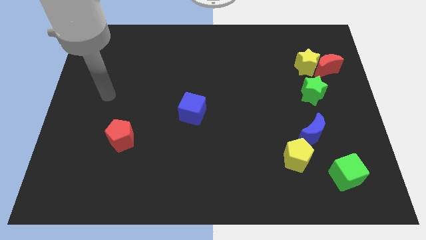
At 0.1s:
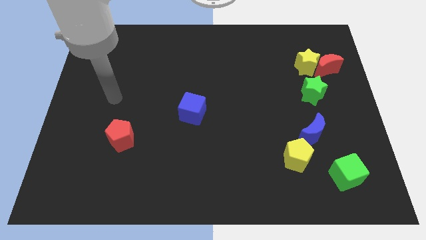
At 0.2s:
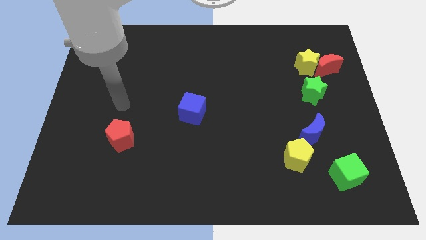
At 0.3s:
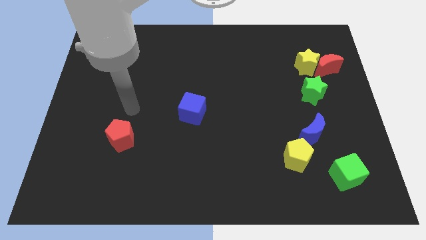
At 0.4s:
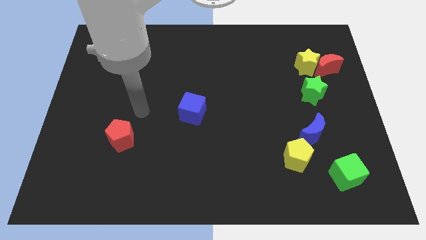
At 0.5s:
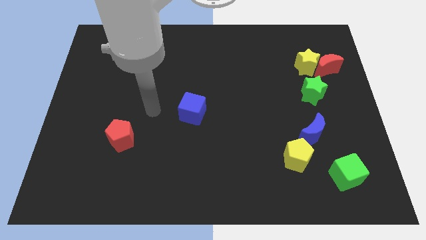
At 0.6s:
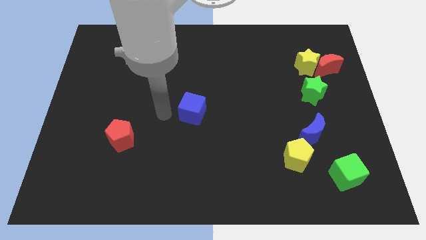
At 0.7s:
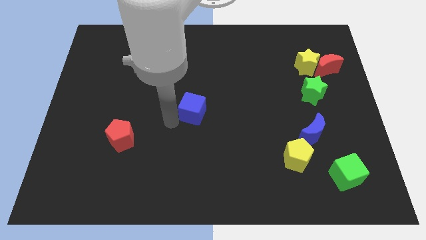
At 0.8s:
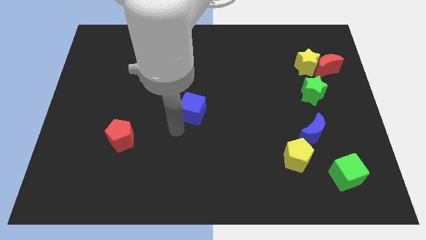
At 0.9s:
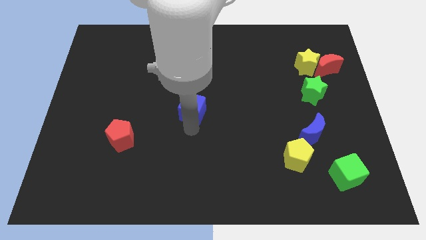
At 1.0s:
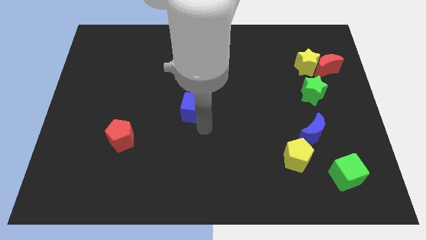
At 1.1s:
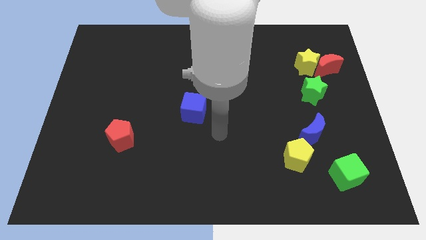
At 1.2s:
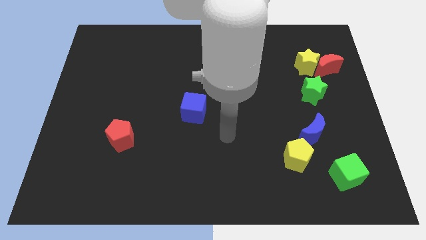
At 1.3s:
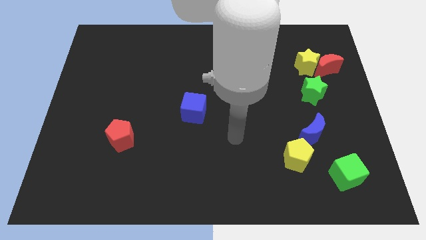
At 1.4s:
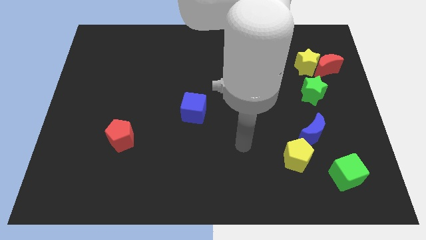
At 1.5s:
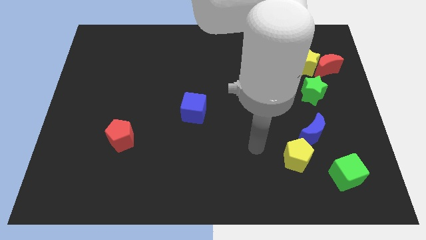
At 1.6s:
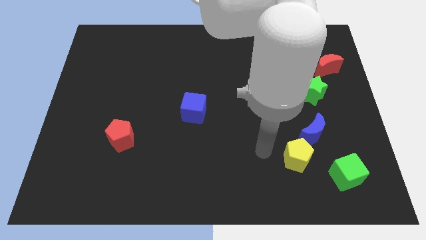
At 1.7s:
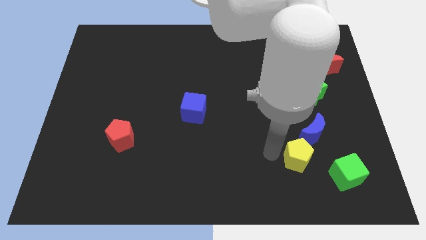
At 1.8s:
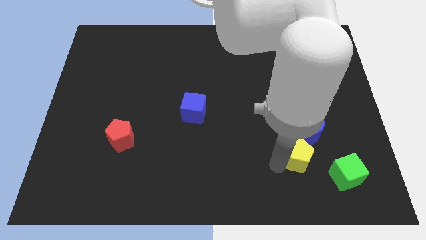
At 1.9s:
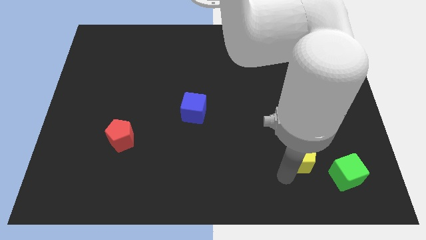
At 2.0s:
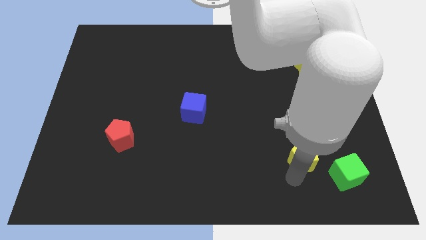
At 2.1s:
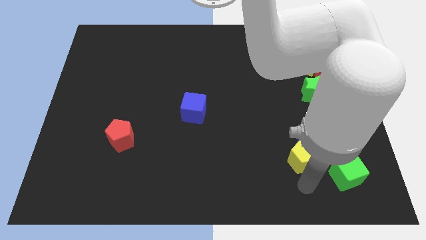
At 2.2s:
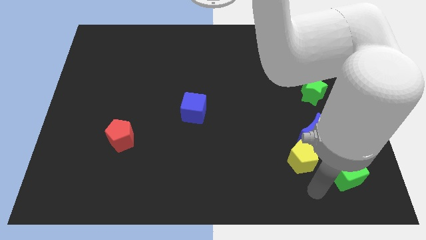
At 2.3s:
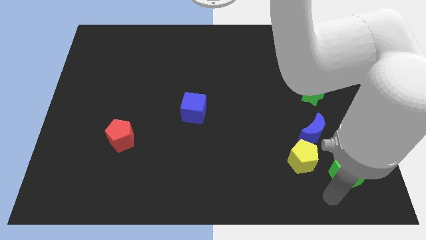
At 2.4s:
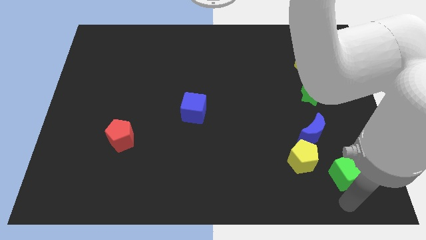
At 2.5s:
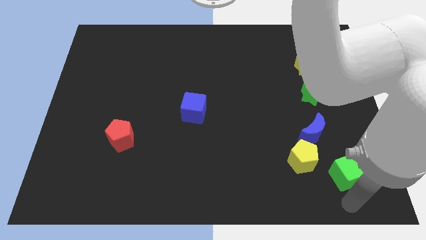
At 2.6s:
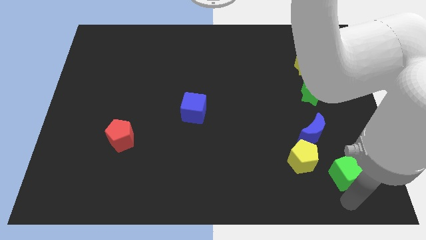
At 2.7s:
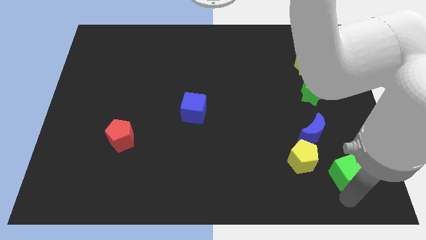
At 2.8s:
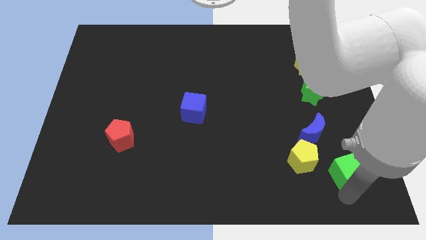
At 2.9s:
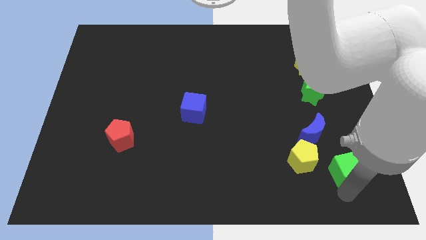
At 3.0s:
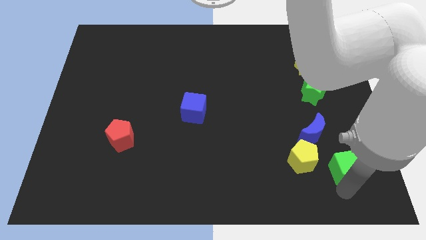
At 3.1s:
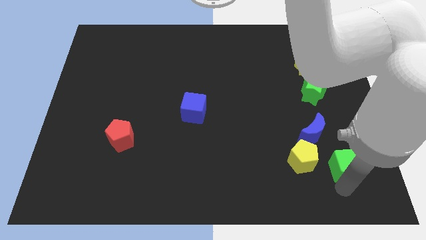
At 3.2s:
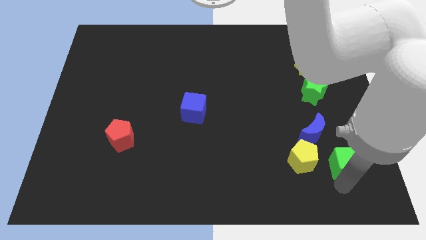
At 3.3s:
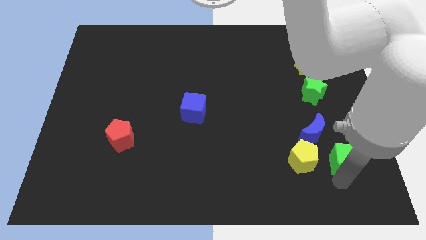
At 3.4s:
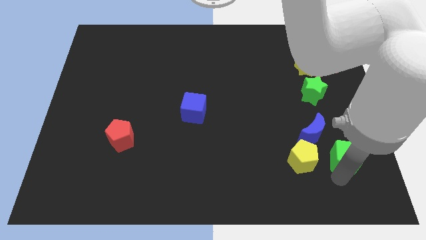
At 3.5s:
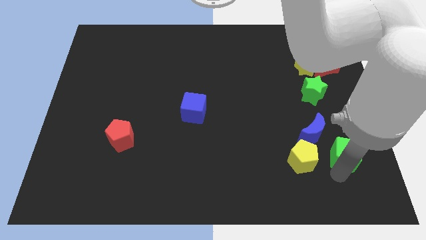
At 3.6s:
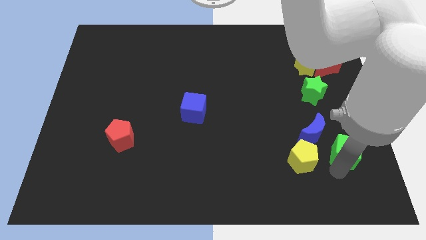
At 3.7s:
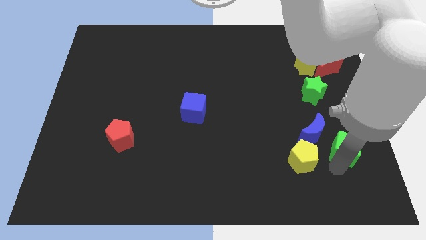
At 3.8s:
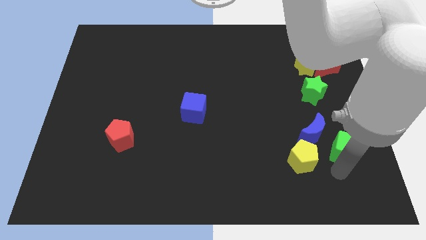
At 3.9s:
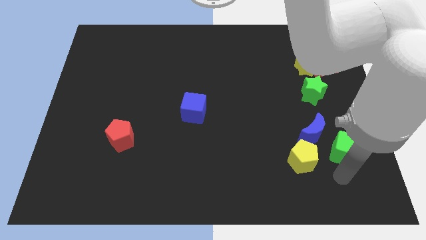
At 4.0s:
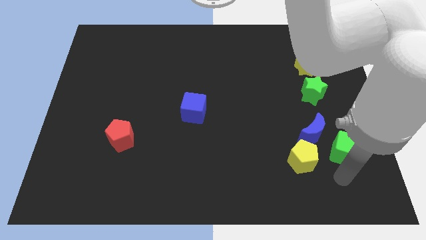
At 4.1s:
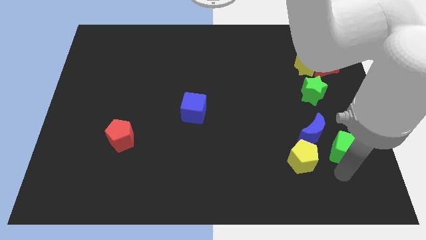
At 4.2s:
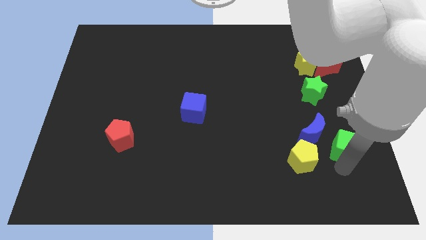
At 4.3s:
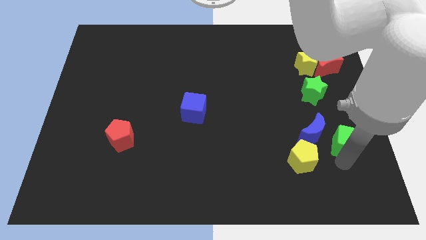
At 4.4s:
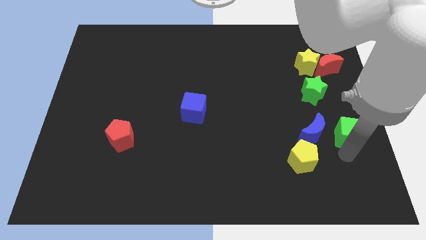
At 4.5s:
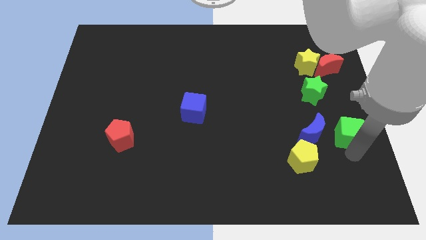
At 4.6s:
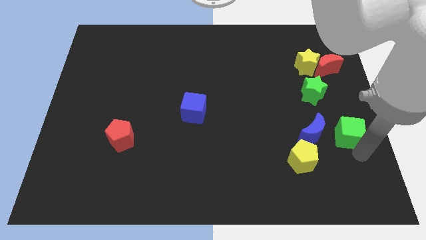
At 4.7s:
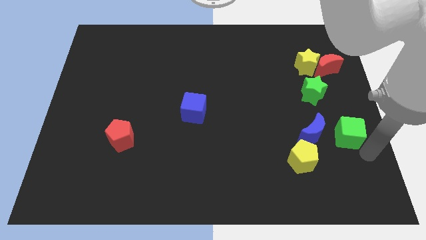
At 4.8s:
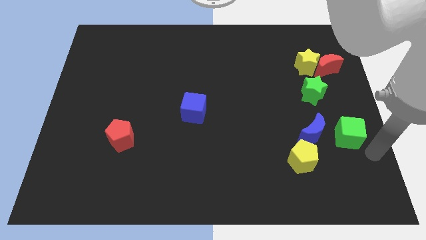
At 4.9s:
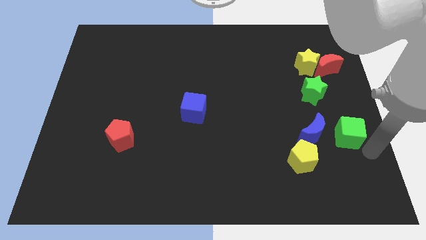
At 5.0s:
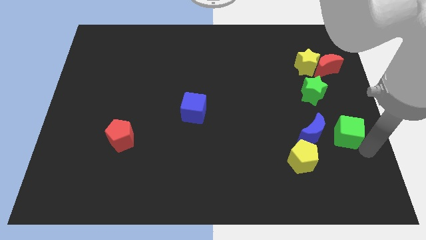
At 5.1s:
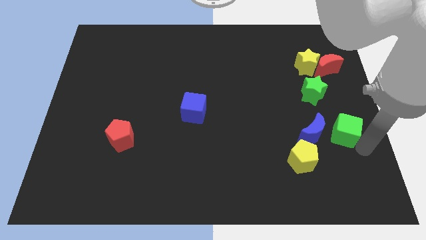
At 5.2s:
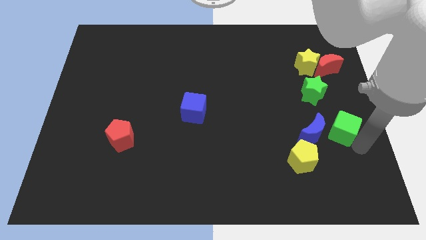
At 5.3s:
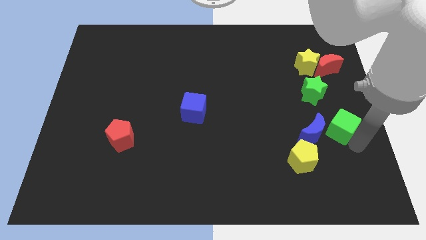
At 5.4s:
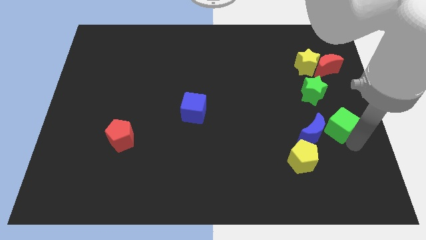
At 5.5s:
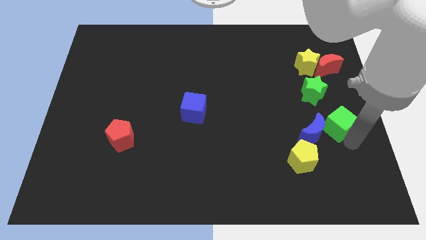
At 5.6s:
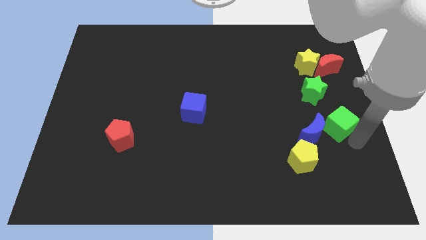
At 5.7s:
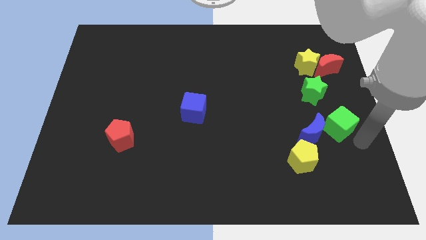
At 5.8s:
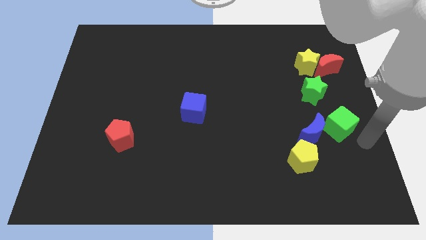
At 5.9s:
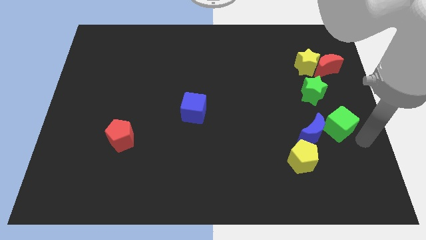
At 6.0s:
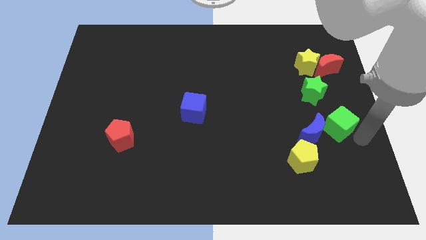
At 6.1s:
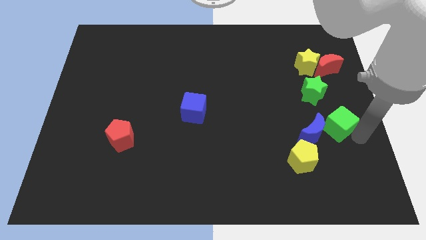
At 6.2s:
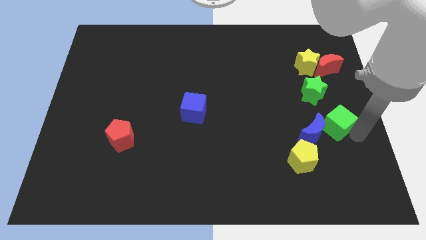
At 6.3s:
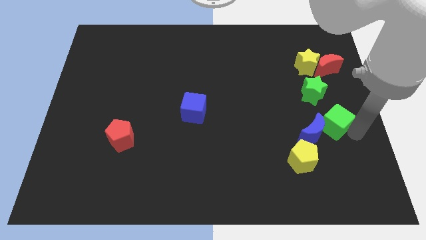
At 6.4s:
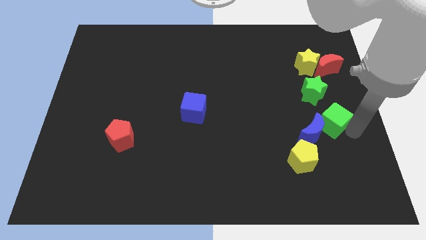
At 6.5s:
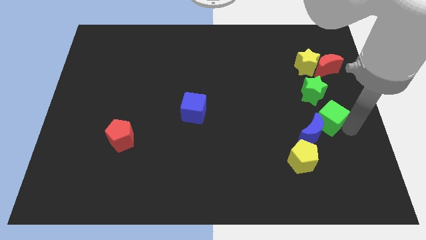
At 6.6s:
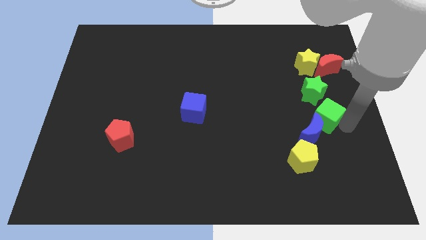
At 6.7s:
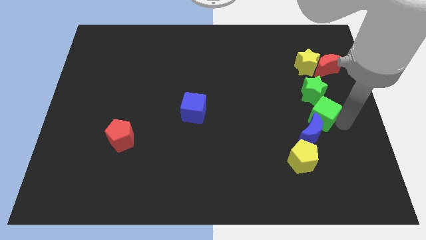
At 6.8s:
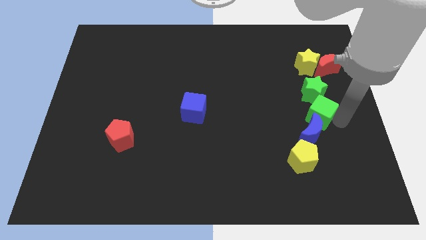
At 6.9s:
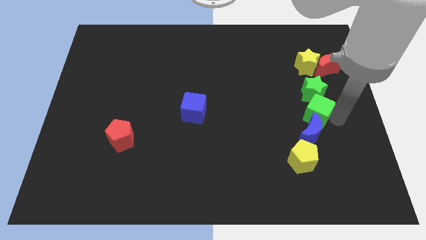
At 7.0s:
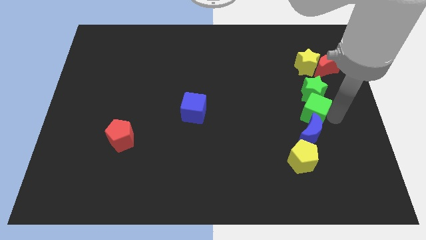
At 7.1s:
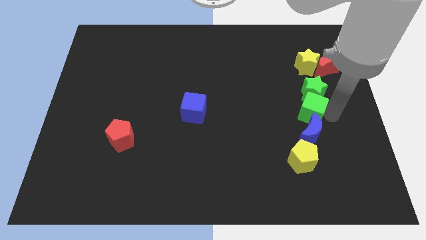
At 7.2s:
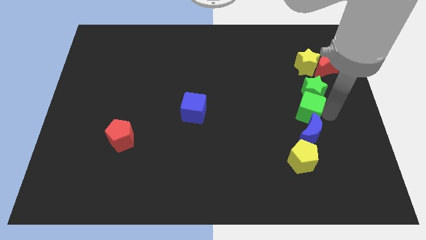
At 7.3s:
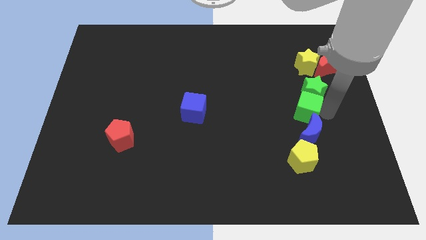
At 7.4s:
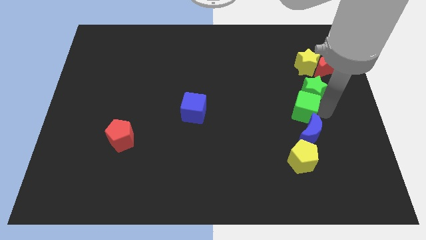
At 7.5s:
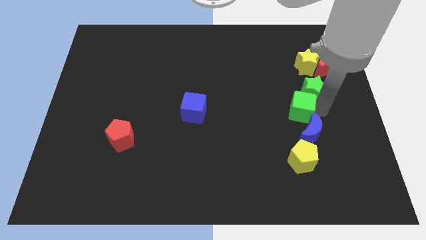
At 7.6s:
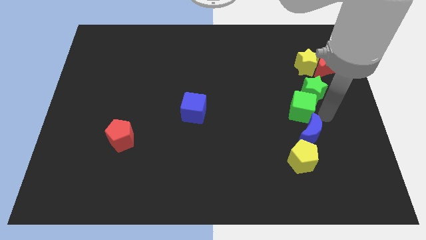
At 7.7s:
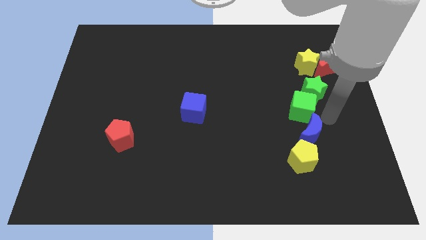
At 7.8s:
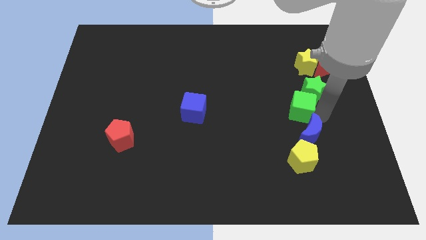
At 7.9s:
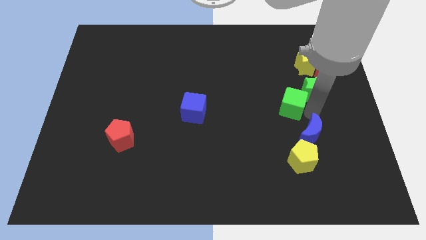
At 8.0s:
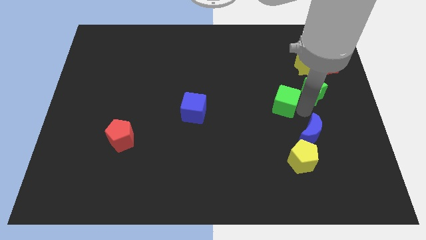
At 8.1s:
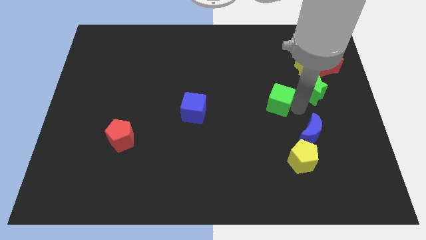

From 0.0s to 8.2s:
push the green cube diagonally up and to the left
